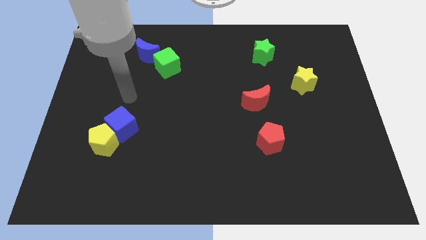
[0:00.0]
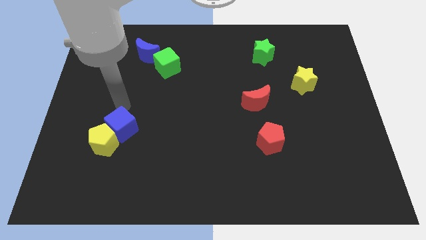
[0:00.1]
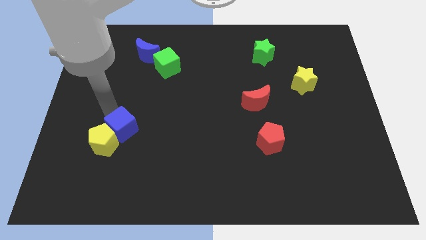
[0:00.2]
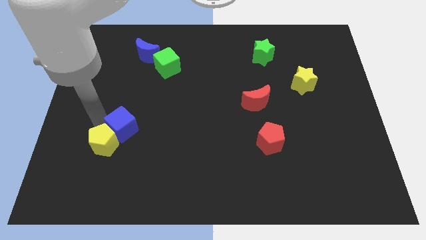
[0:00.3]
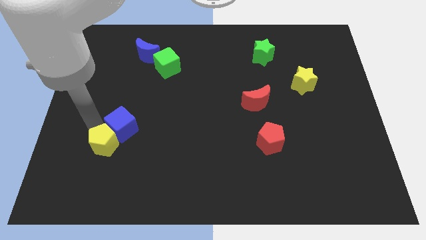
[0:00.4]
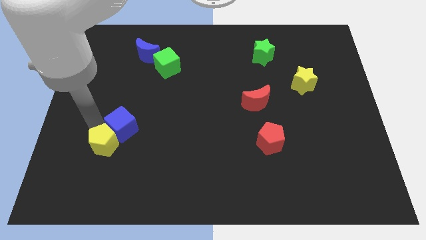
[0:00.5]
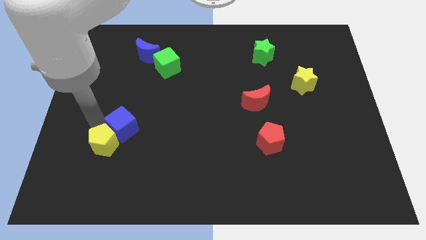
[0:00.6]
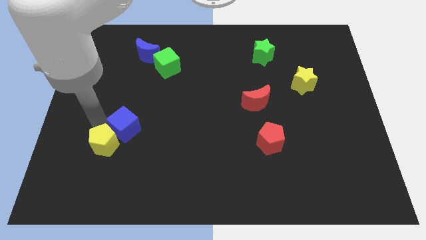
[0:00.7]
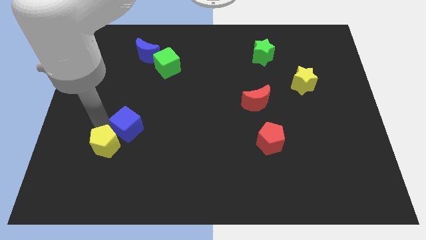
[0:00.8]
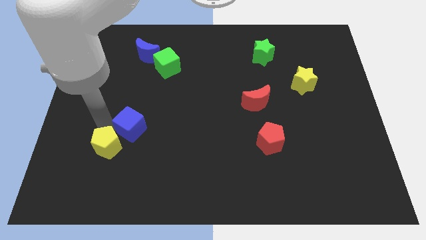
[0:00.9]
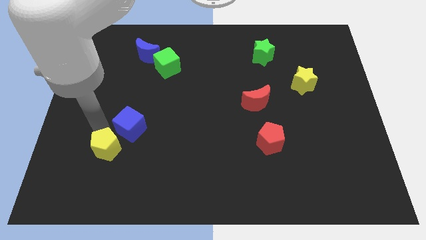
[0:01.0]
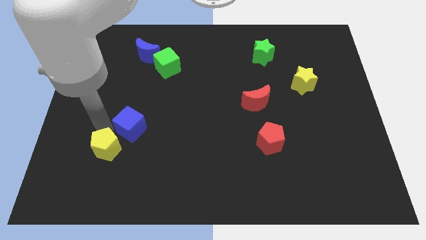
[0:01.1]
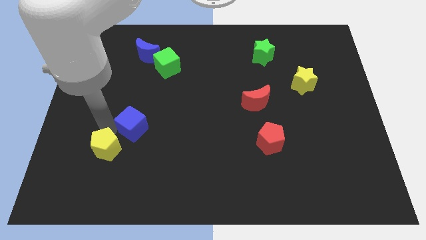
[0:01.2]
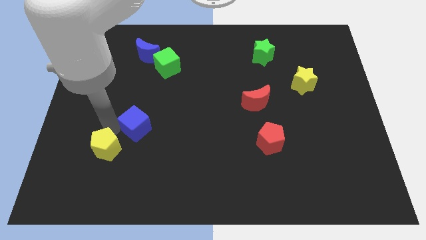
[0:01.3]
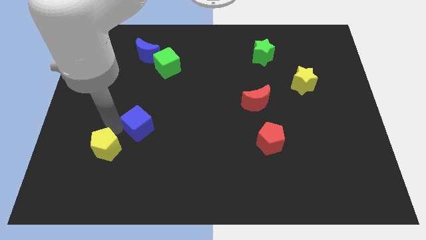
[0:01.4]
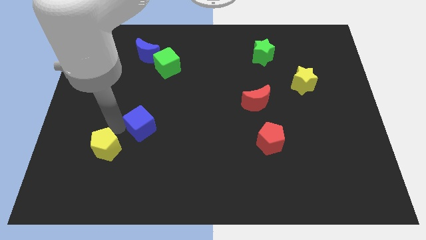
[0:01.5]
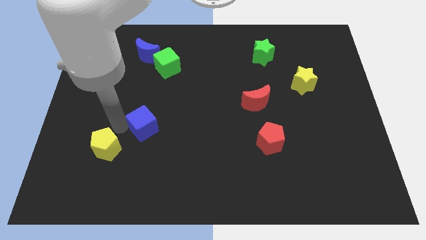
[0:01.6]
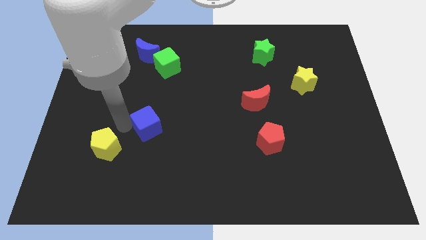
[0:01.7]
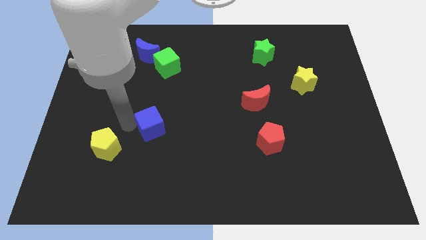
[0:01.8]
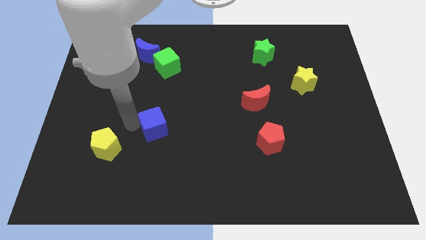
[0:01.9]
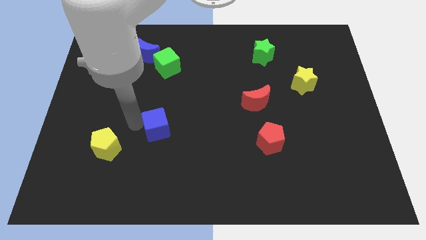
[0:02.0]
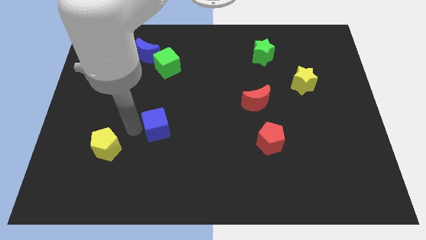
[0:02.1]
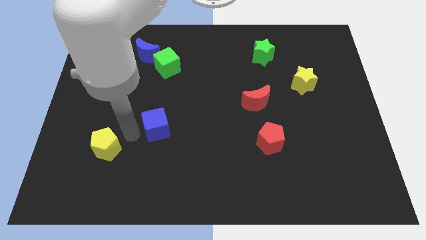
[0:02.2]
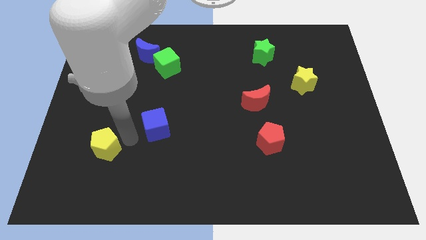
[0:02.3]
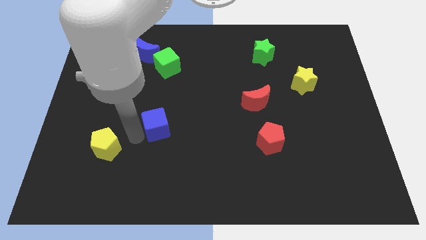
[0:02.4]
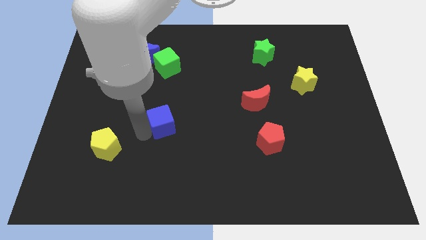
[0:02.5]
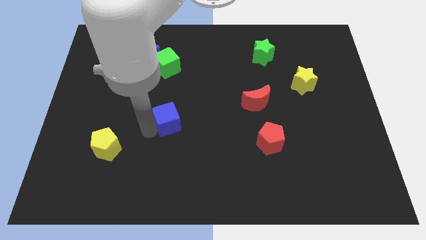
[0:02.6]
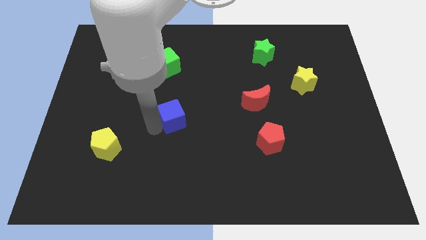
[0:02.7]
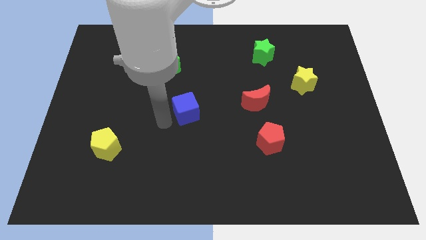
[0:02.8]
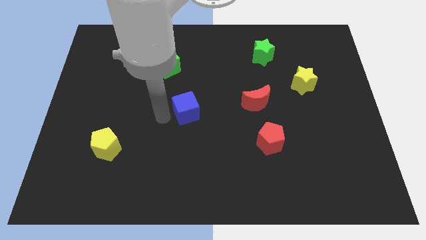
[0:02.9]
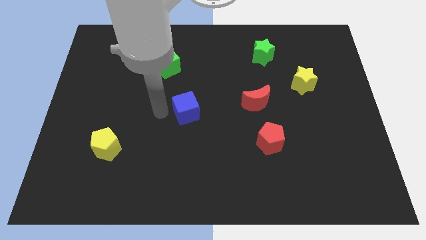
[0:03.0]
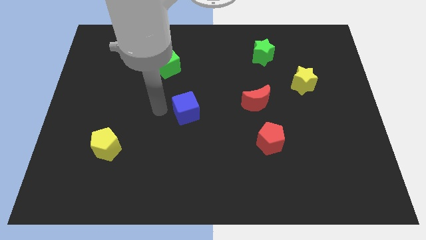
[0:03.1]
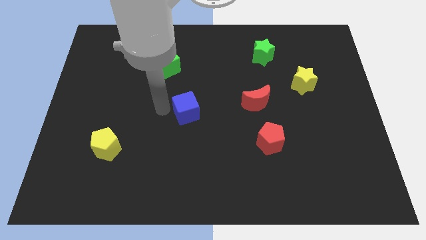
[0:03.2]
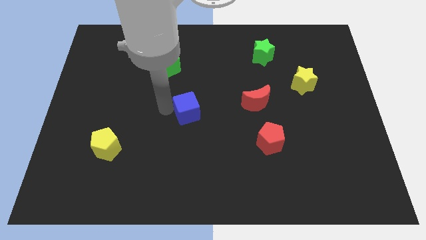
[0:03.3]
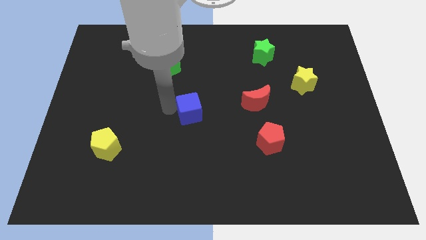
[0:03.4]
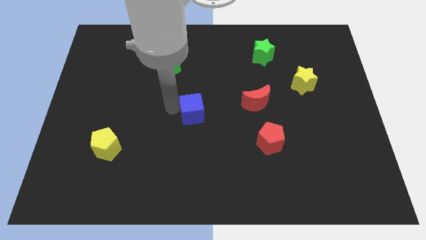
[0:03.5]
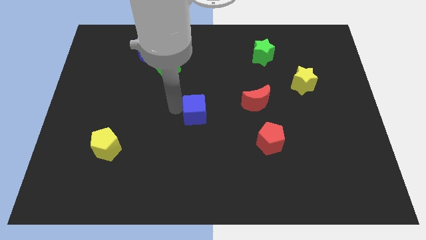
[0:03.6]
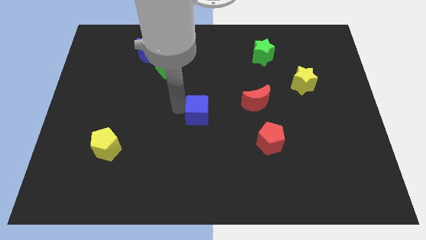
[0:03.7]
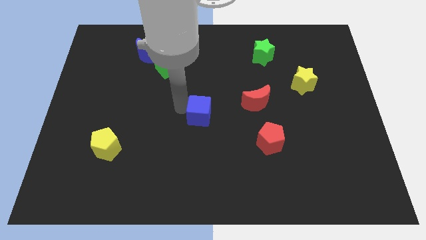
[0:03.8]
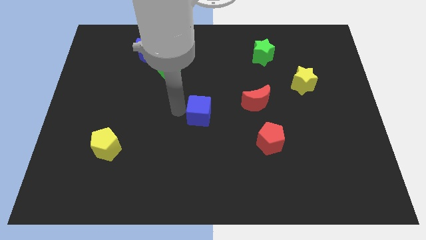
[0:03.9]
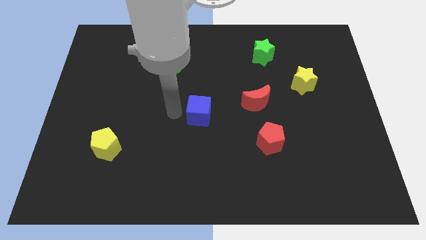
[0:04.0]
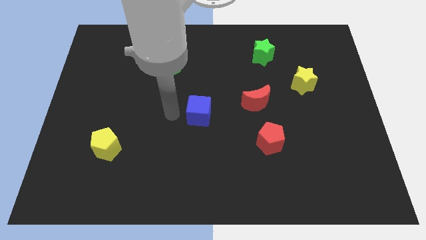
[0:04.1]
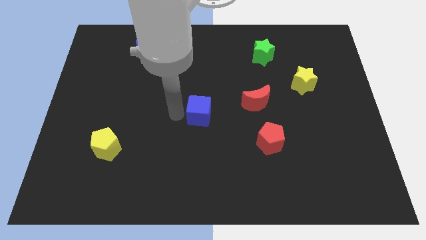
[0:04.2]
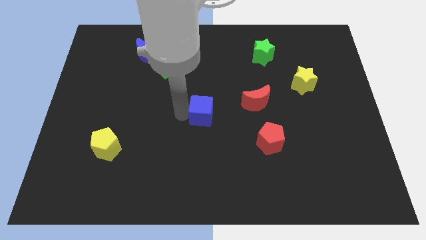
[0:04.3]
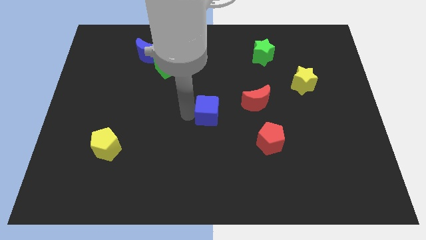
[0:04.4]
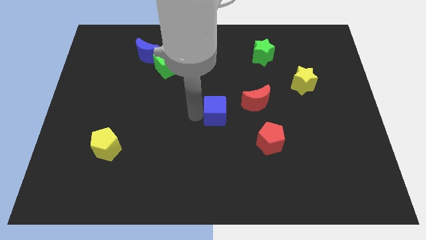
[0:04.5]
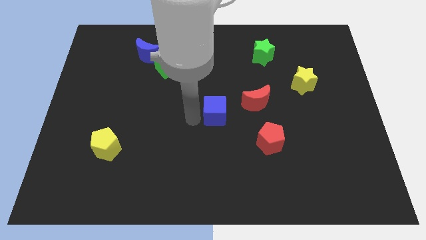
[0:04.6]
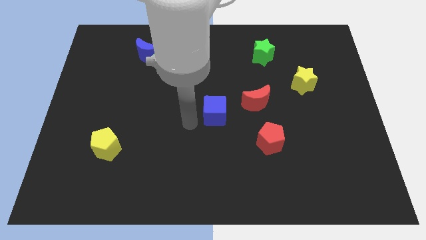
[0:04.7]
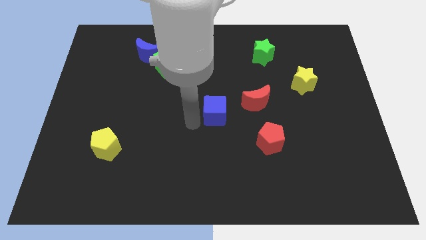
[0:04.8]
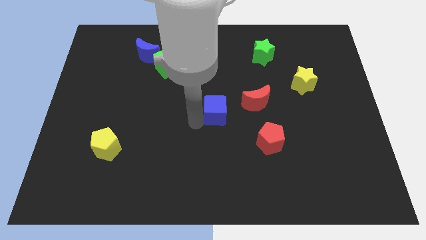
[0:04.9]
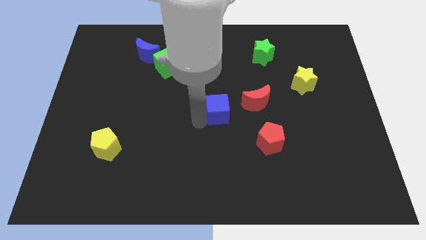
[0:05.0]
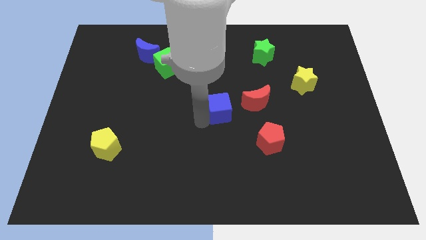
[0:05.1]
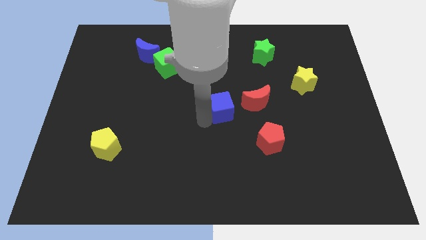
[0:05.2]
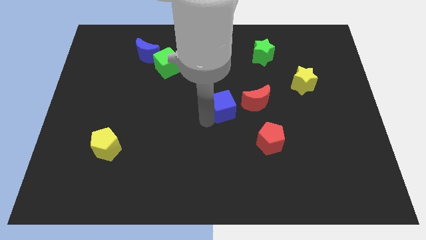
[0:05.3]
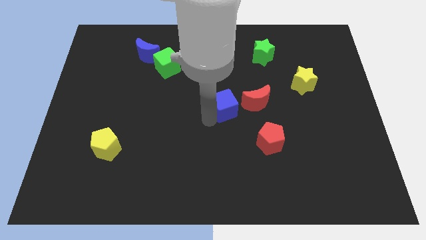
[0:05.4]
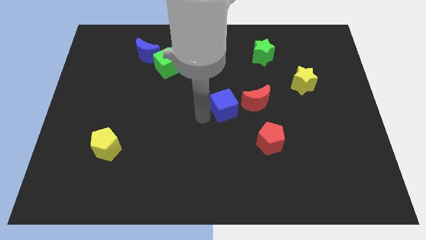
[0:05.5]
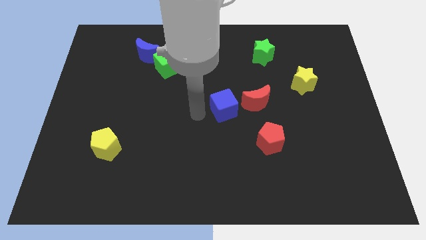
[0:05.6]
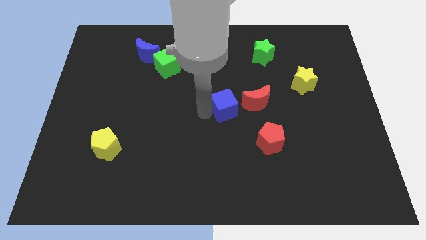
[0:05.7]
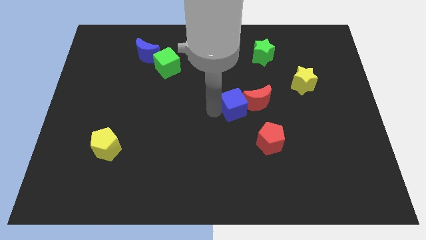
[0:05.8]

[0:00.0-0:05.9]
put the blue cube towards the red moon

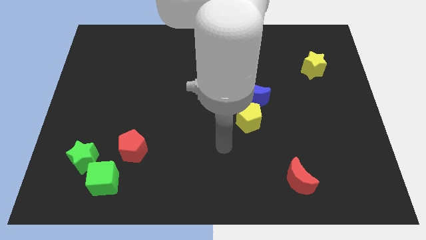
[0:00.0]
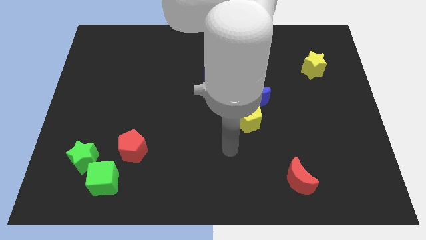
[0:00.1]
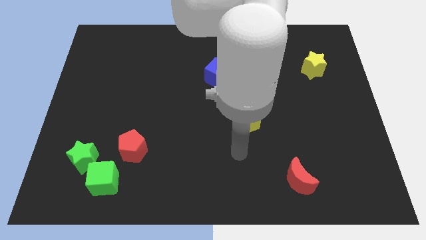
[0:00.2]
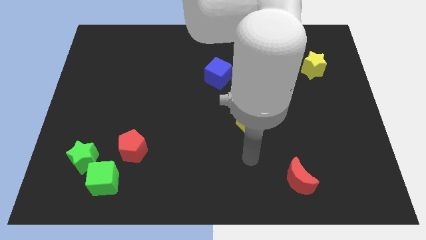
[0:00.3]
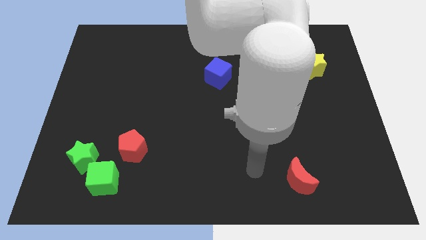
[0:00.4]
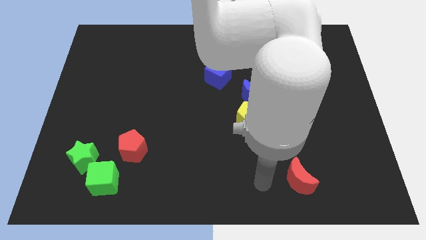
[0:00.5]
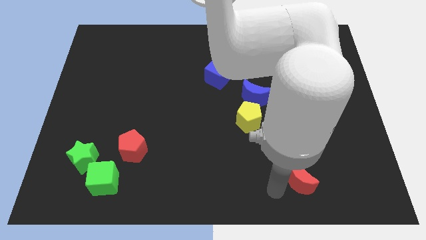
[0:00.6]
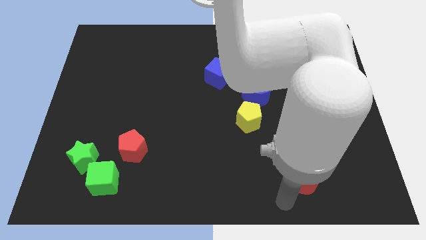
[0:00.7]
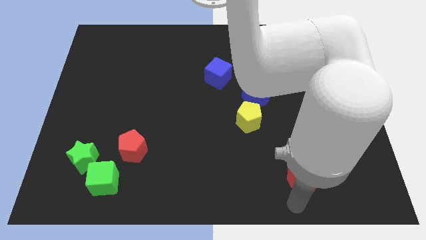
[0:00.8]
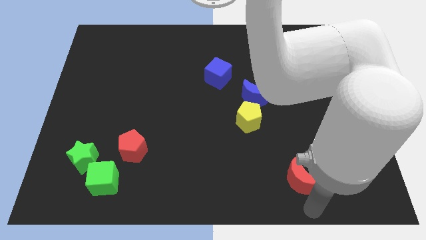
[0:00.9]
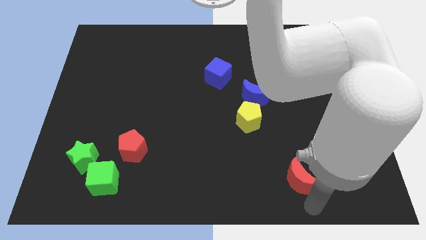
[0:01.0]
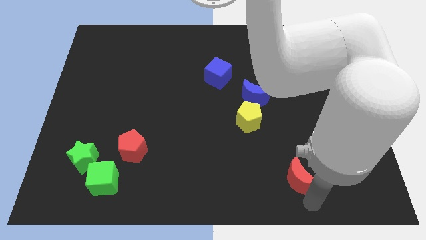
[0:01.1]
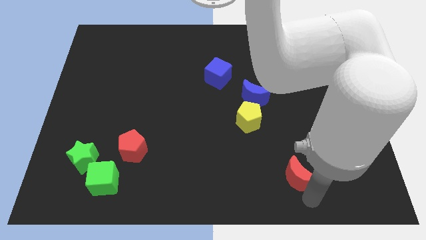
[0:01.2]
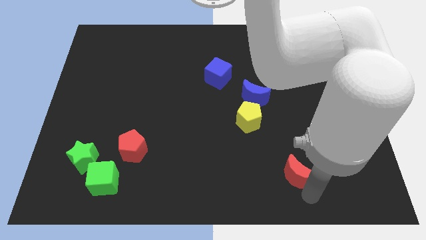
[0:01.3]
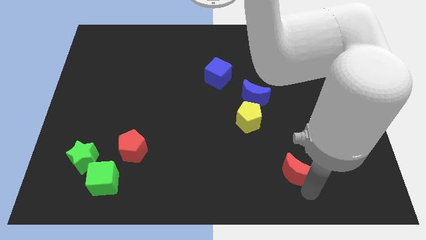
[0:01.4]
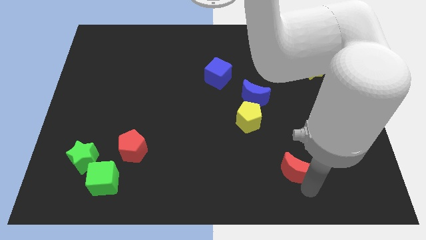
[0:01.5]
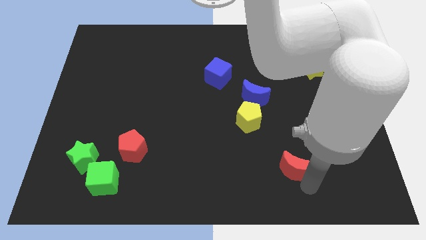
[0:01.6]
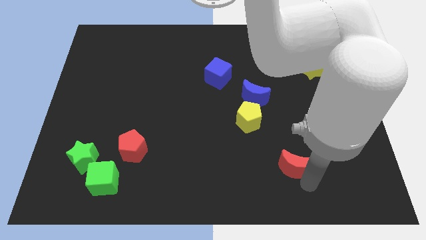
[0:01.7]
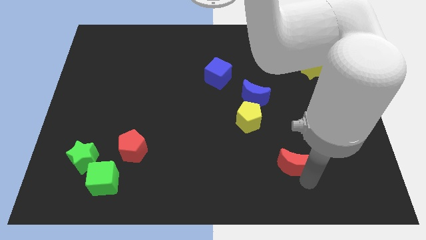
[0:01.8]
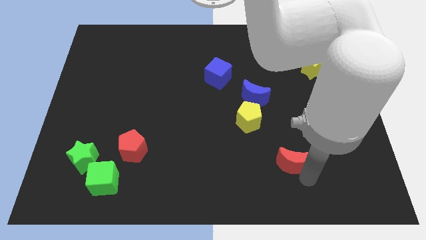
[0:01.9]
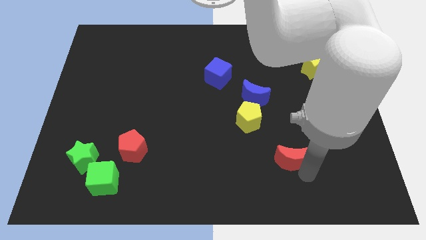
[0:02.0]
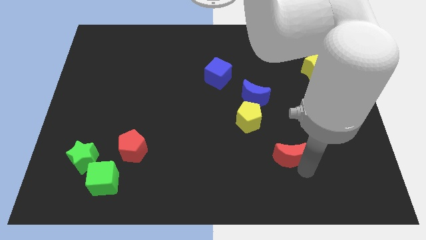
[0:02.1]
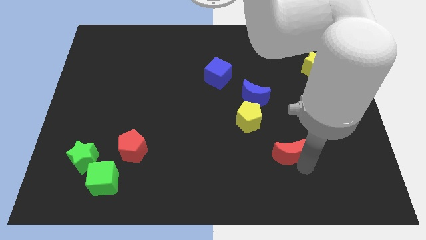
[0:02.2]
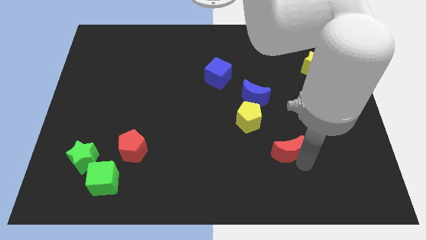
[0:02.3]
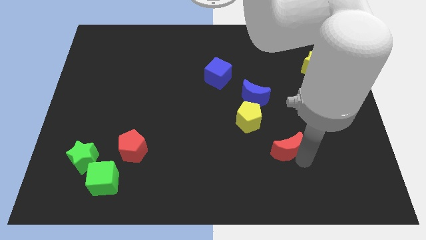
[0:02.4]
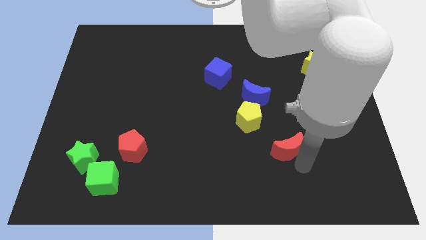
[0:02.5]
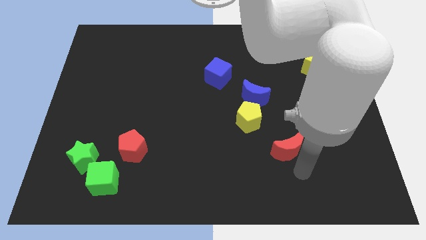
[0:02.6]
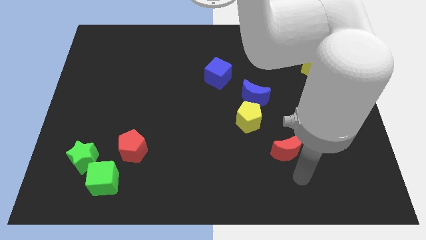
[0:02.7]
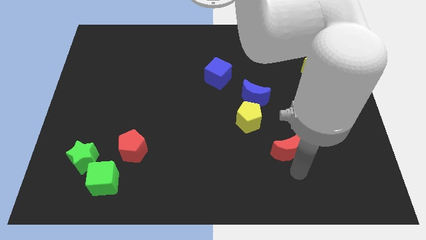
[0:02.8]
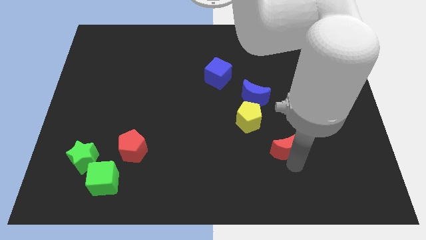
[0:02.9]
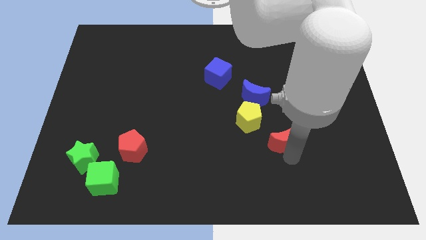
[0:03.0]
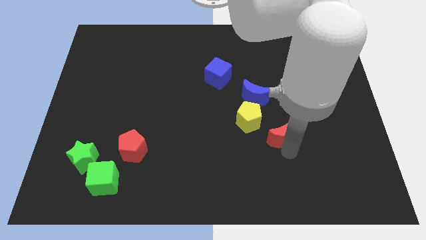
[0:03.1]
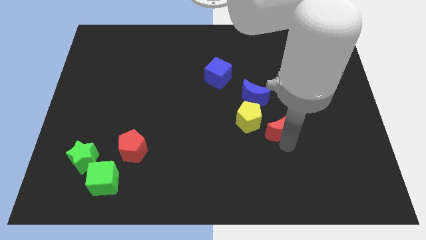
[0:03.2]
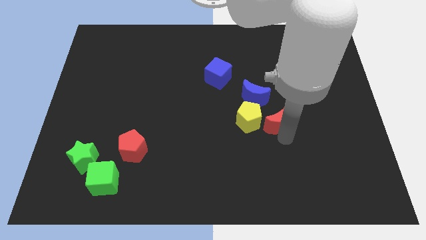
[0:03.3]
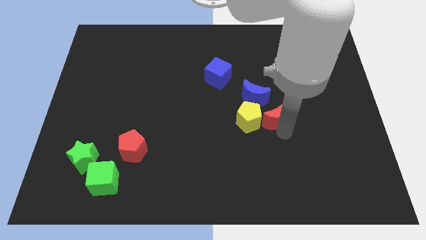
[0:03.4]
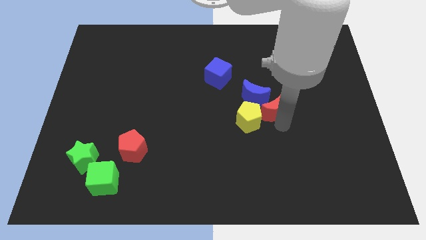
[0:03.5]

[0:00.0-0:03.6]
slide the red moon towards the blue moon
